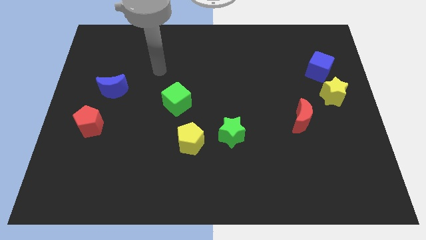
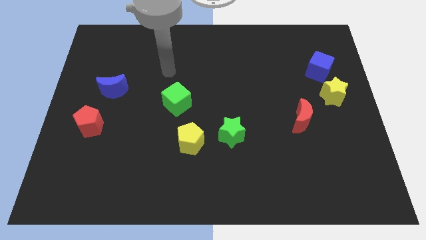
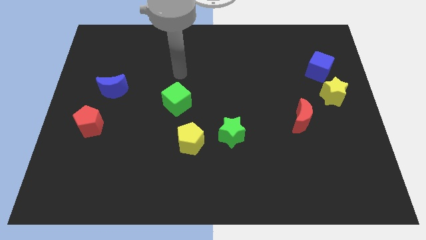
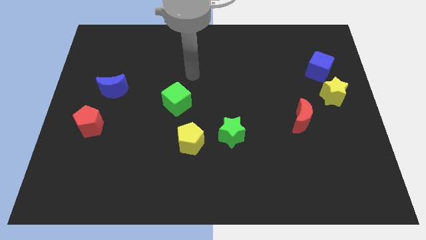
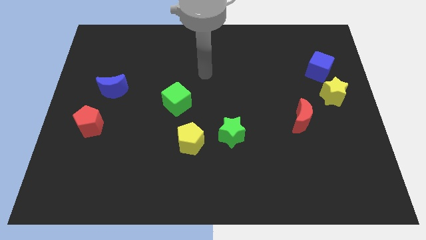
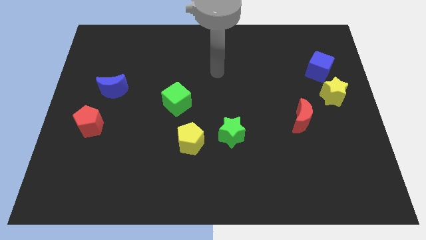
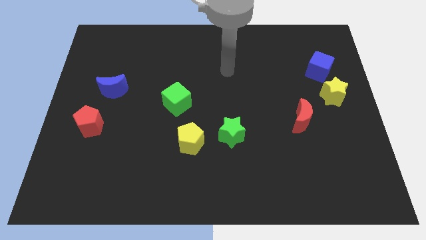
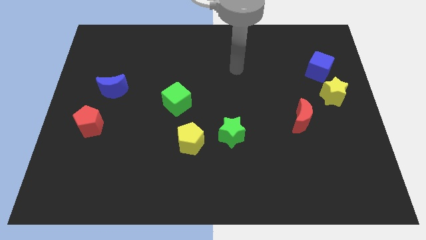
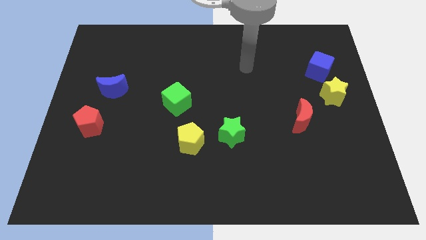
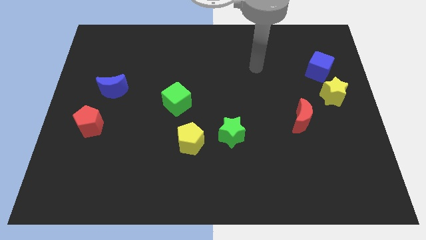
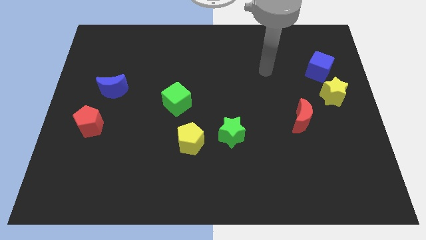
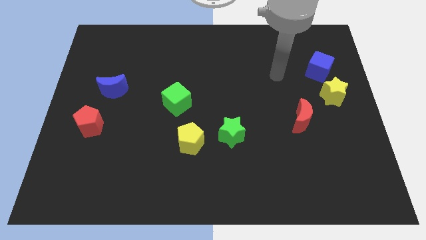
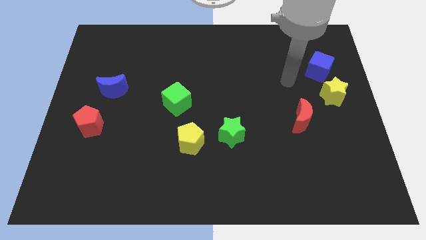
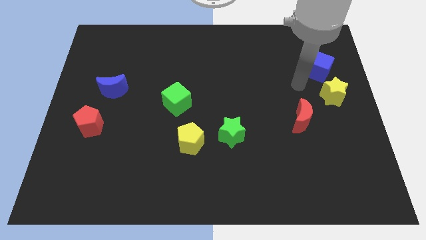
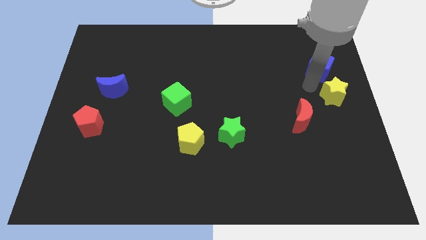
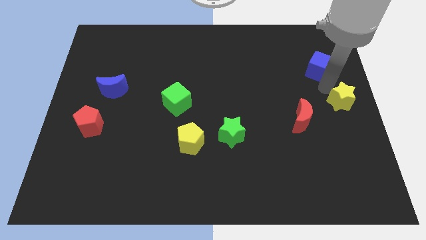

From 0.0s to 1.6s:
pull the blue cube apart from the yellow star

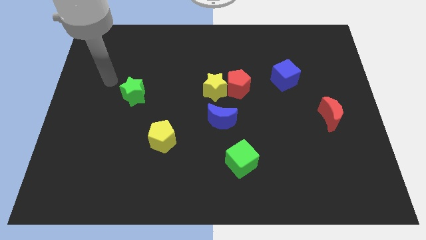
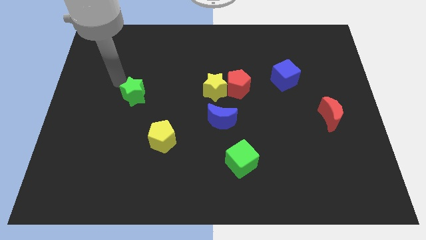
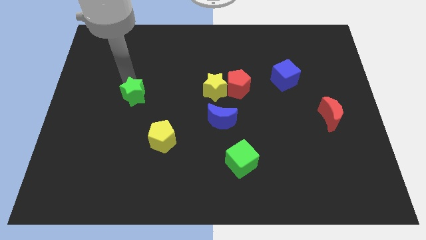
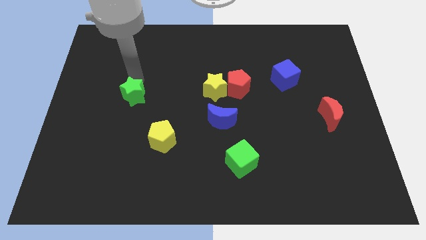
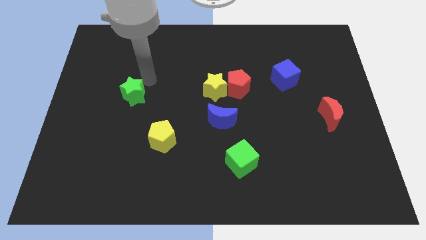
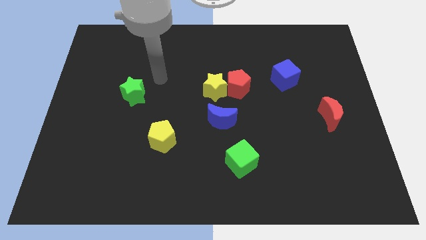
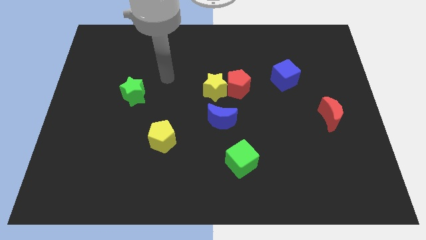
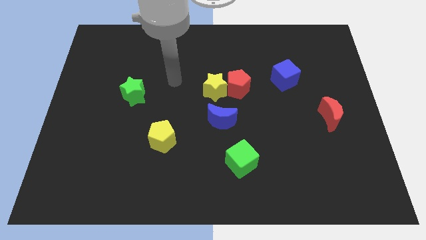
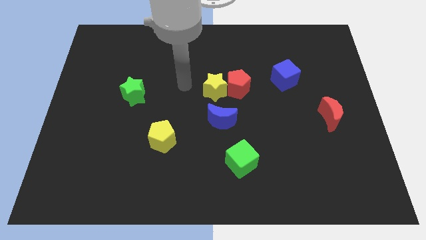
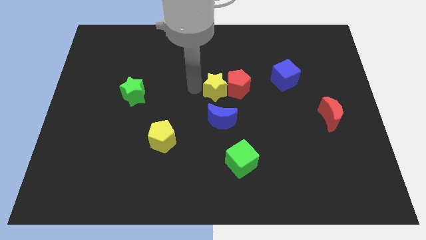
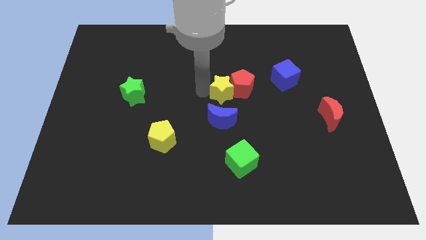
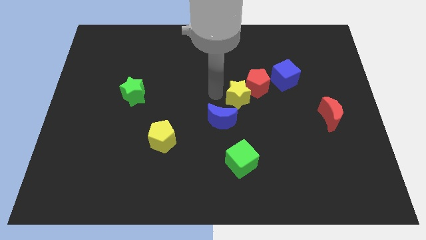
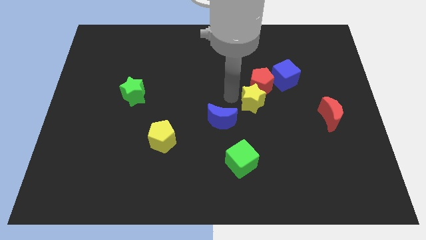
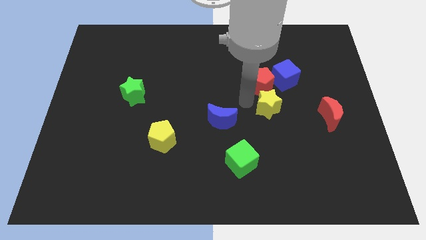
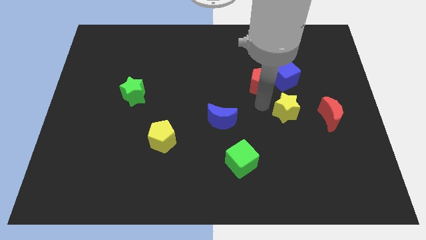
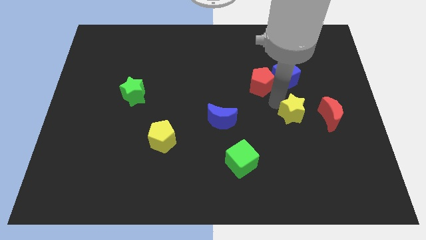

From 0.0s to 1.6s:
move the red pentagon away from the yellow star

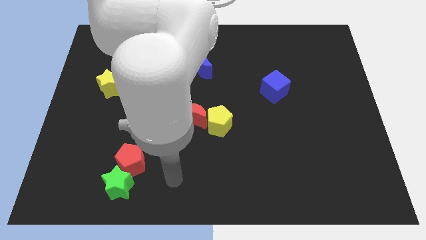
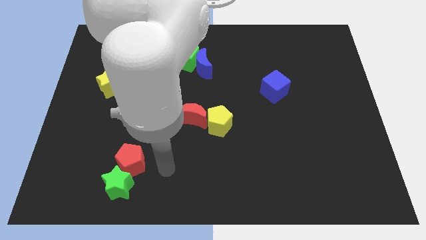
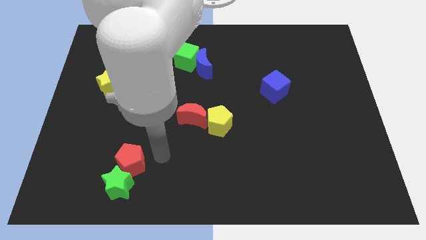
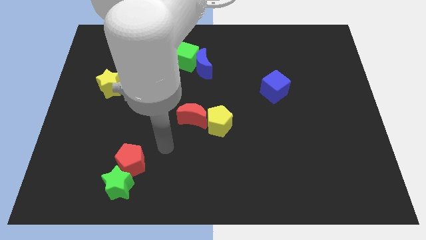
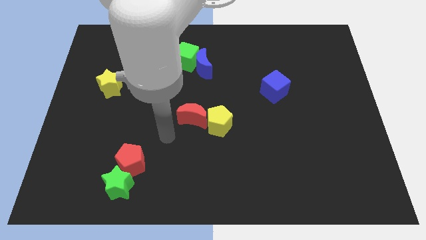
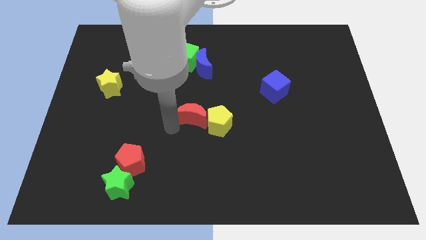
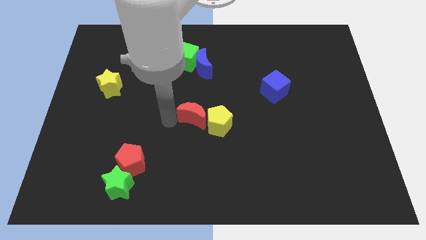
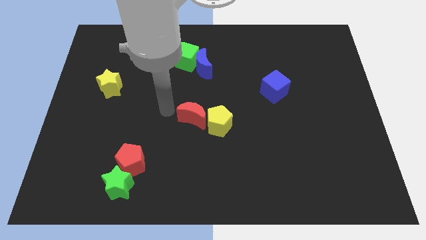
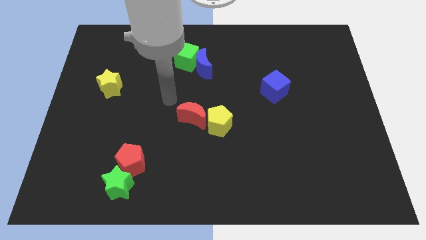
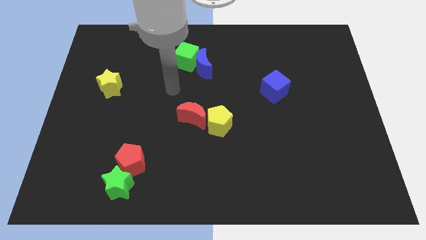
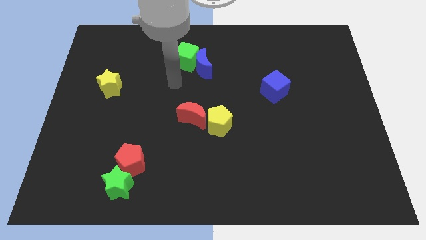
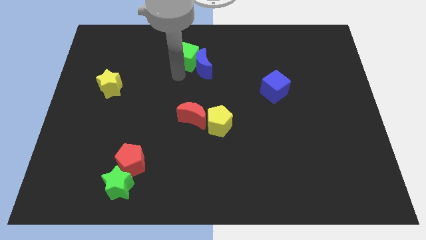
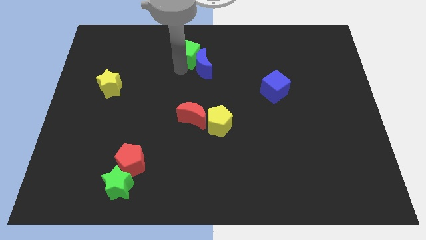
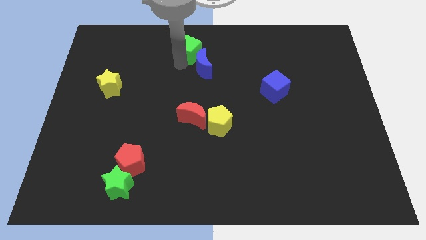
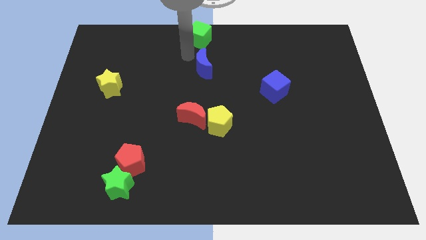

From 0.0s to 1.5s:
separate the blue moon from the green cube

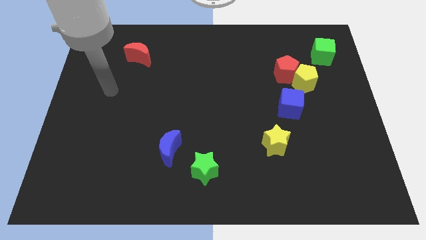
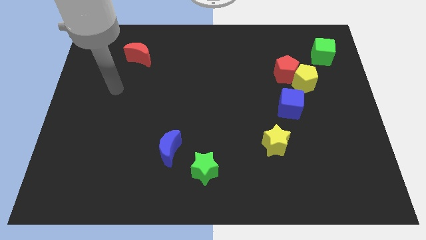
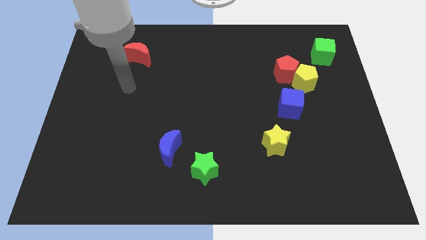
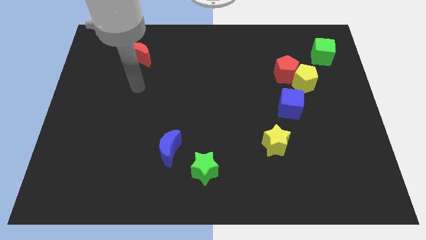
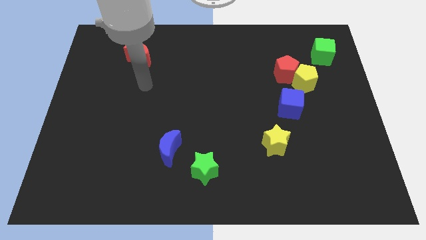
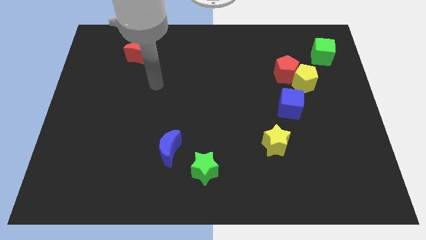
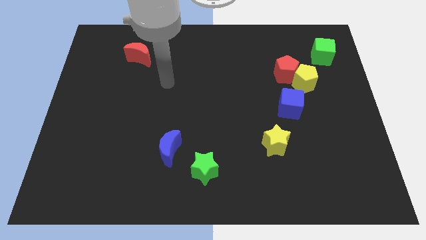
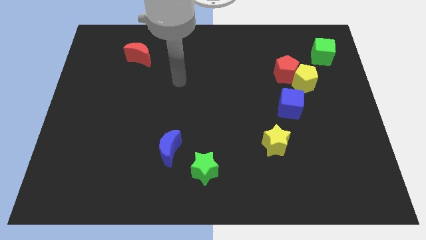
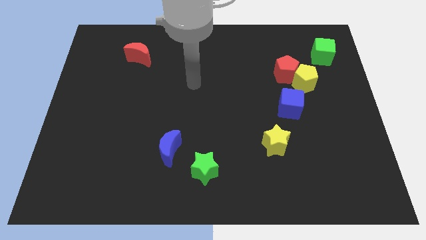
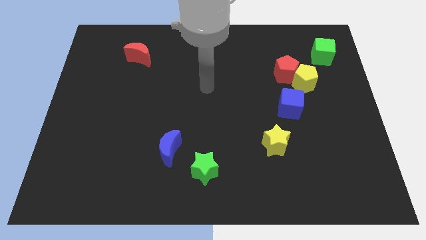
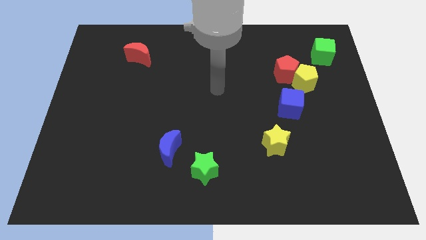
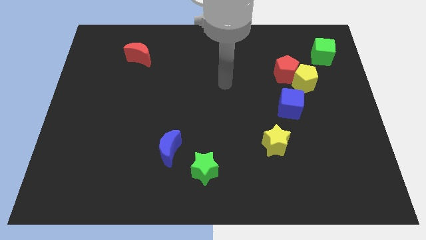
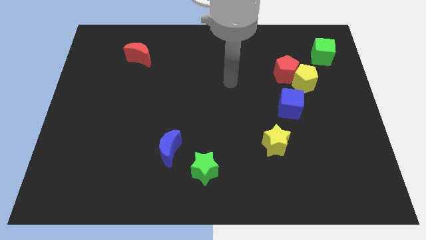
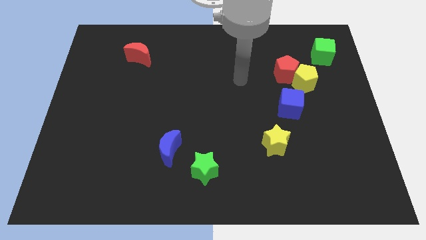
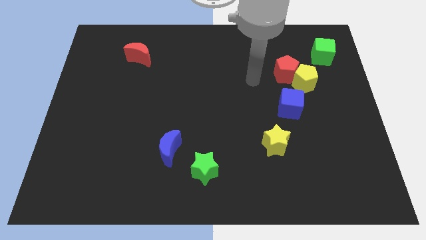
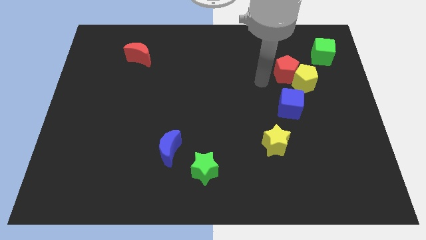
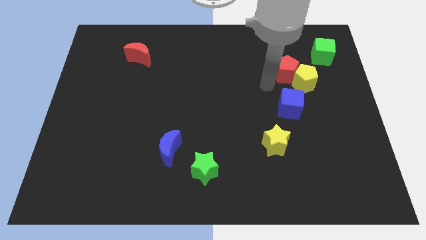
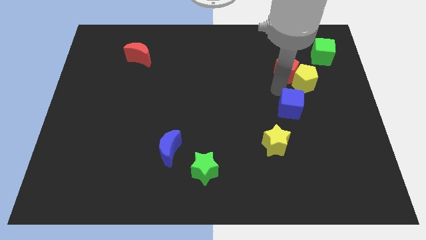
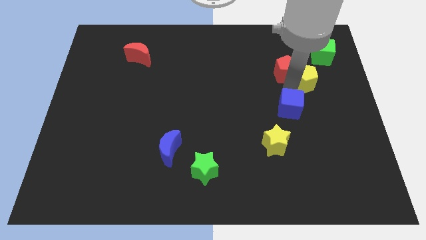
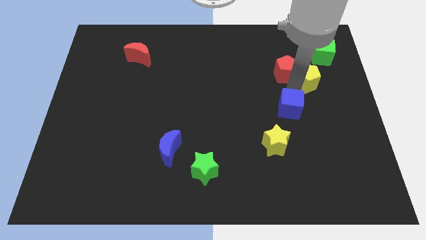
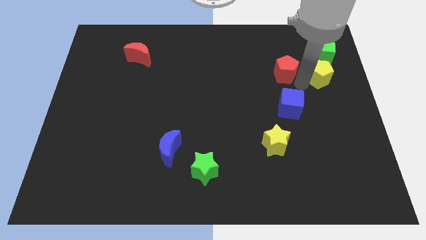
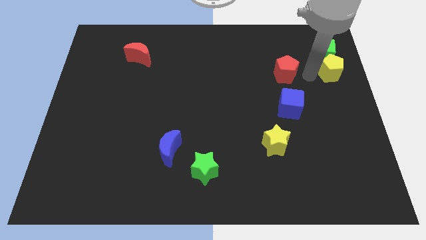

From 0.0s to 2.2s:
separate the red pentagon from the yellow pentagon

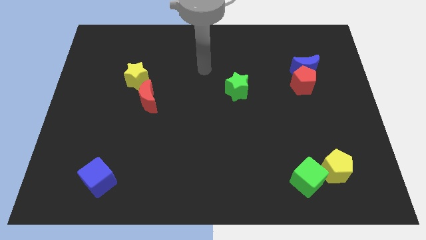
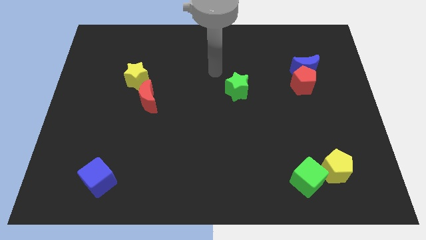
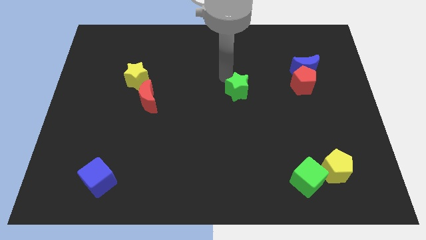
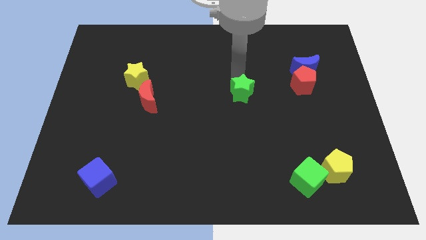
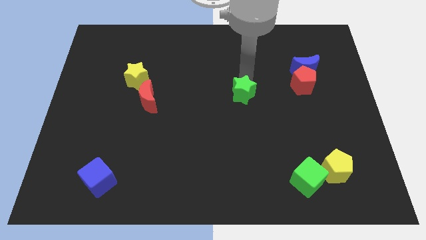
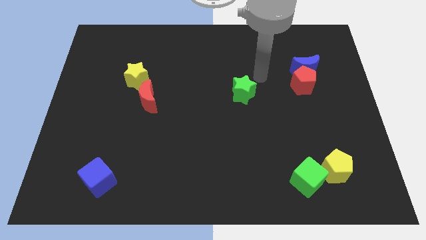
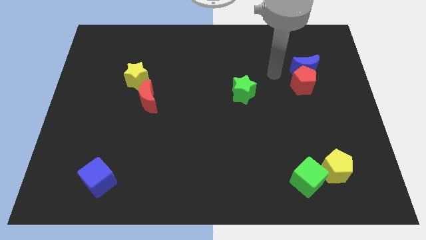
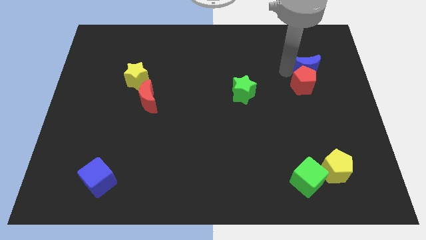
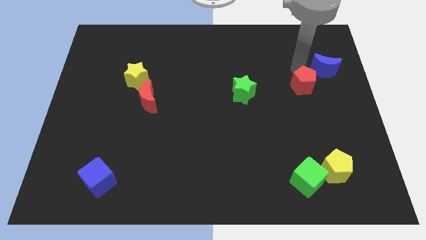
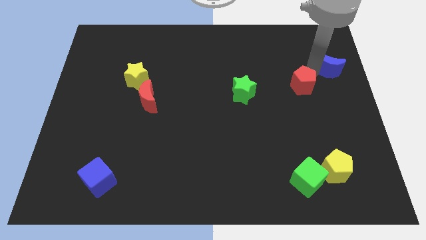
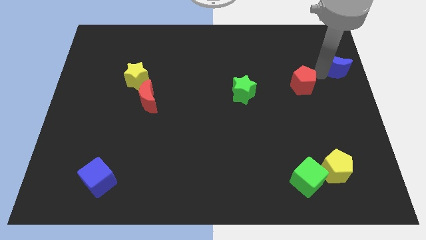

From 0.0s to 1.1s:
move the red pentagon away from the blue moon

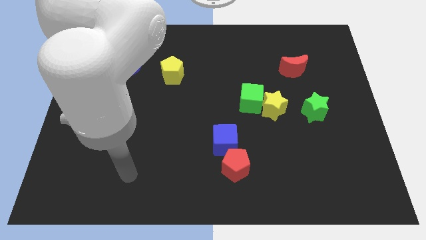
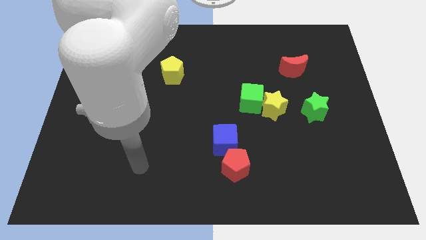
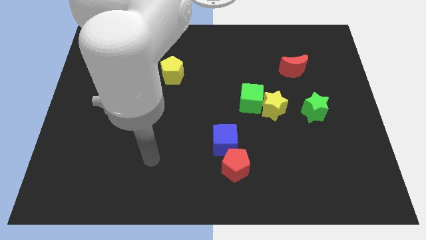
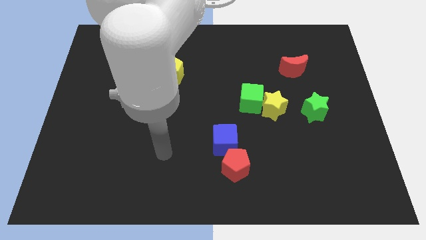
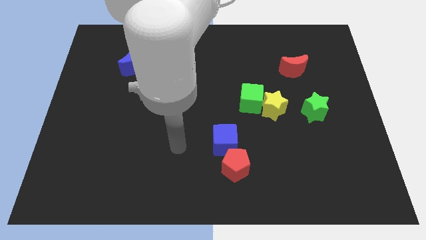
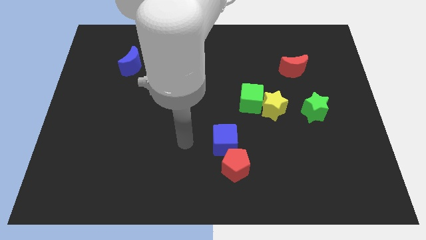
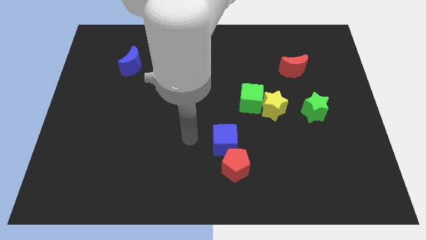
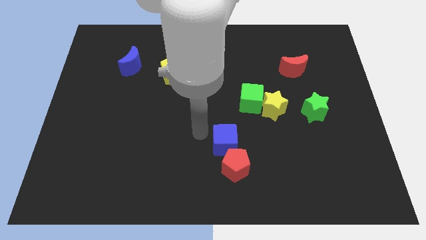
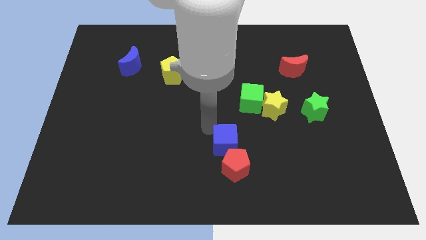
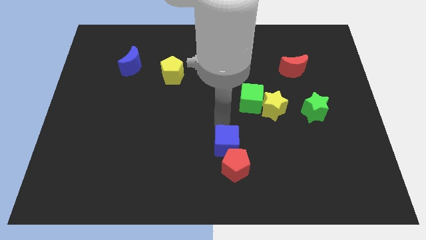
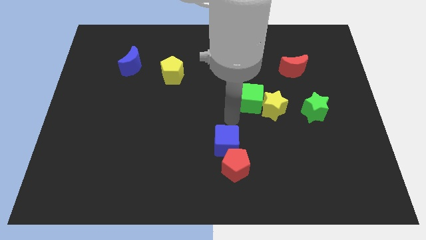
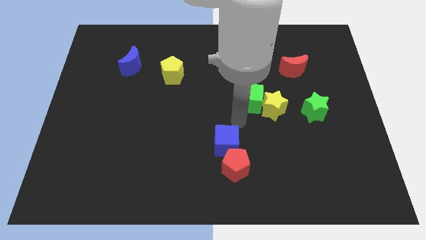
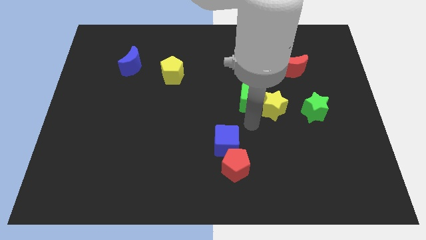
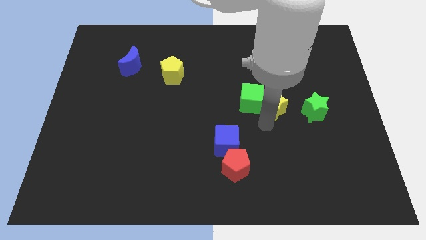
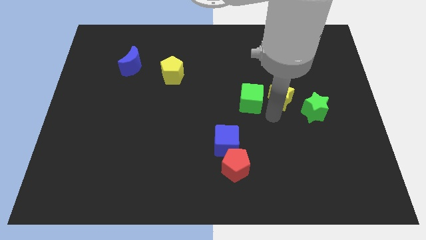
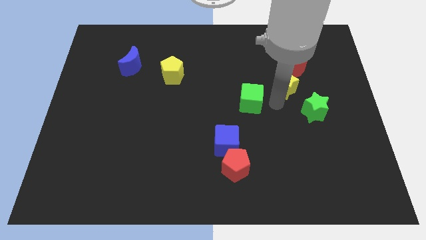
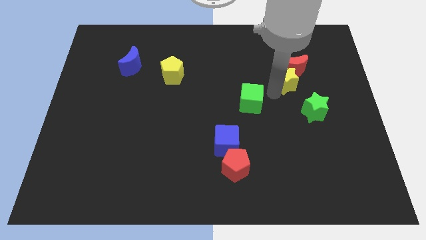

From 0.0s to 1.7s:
separate the green cube from the yellow star
